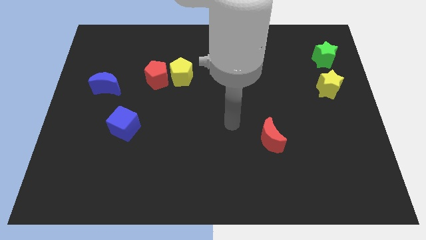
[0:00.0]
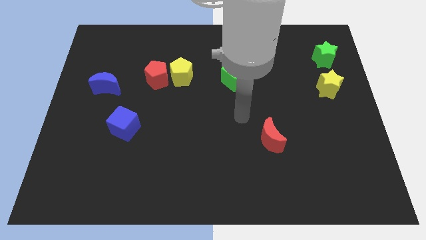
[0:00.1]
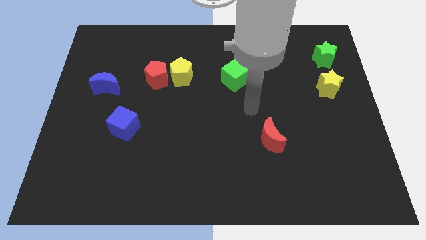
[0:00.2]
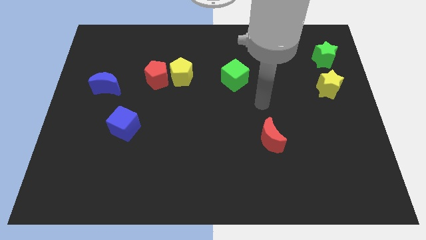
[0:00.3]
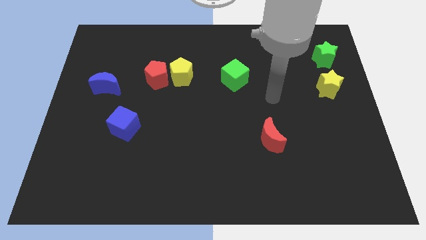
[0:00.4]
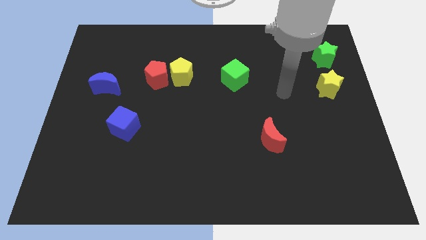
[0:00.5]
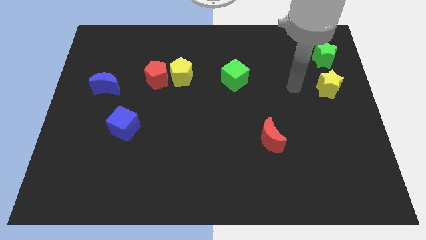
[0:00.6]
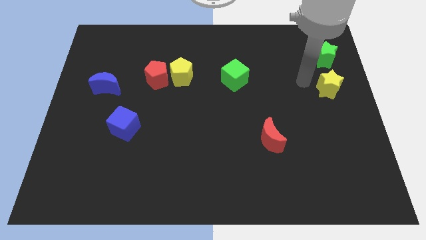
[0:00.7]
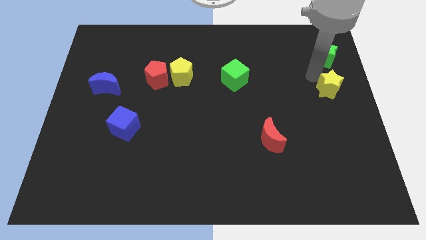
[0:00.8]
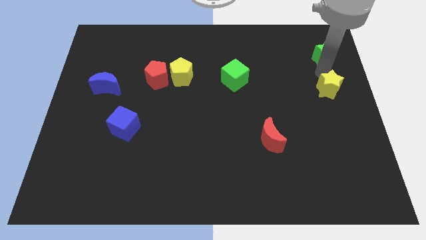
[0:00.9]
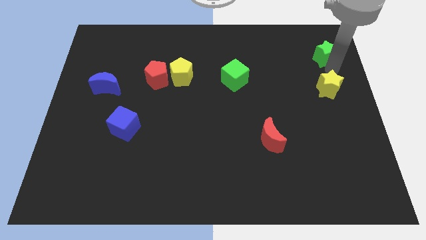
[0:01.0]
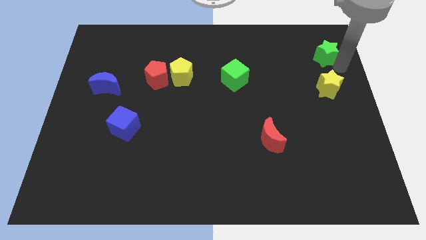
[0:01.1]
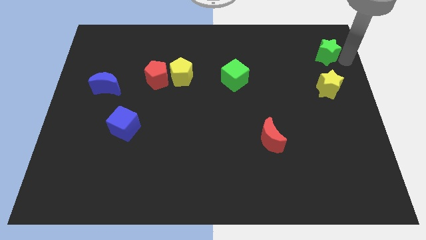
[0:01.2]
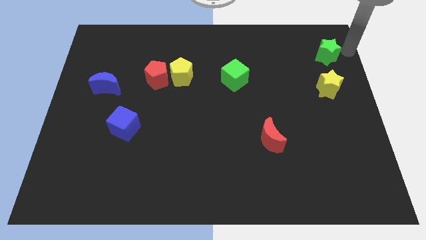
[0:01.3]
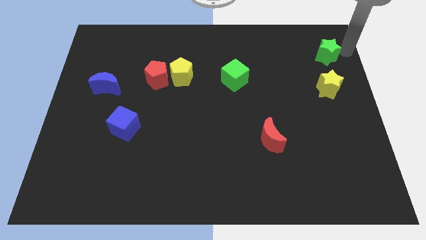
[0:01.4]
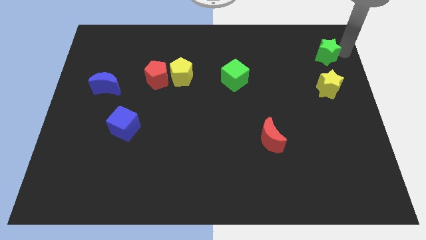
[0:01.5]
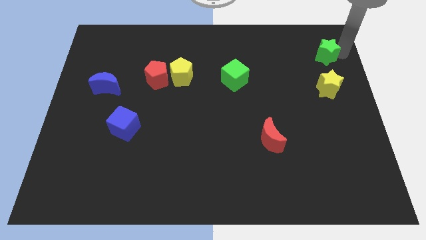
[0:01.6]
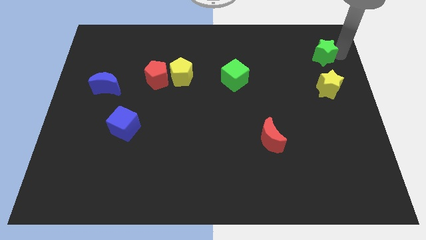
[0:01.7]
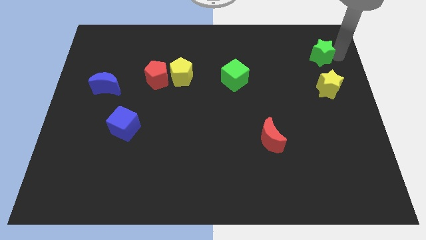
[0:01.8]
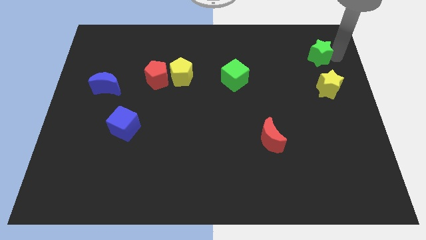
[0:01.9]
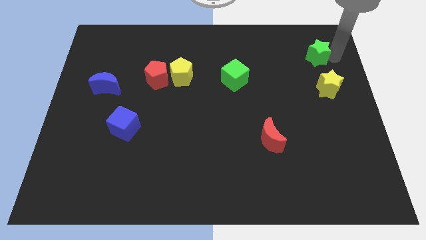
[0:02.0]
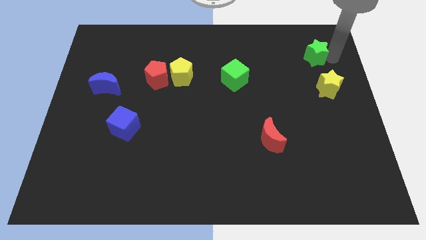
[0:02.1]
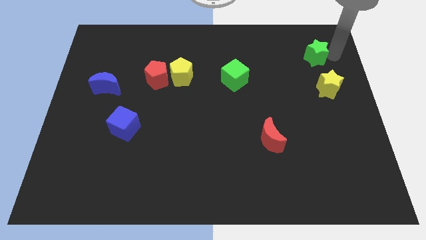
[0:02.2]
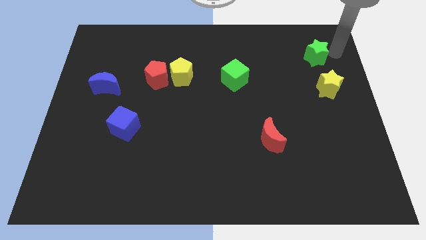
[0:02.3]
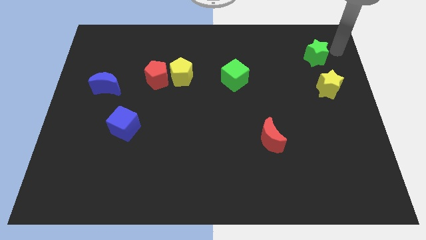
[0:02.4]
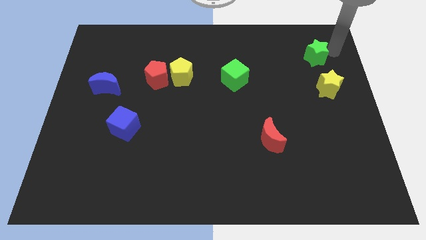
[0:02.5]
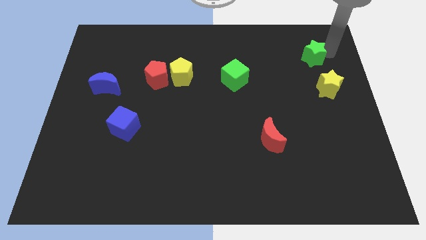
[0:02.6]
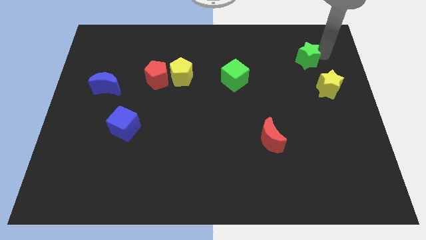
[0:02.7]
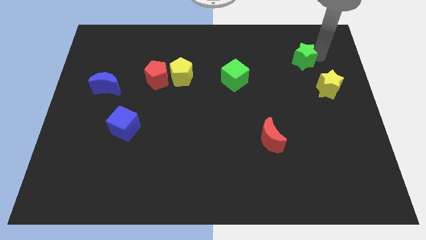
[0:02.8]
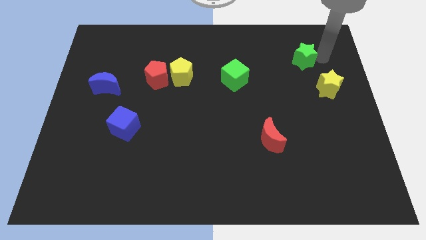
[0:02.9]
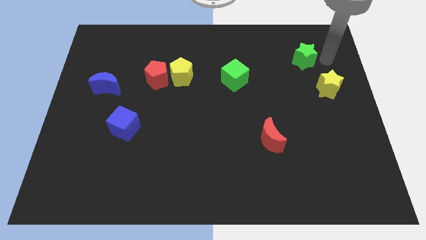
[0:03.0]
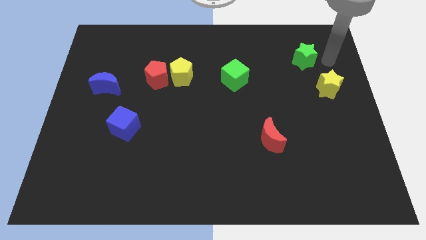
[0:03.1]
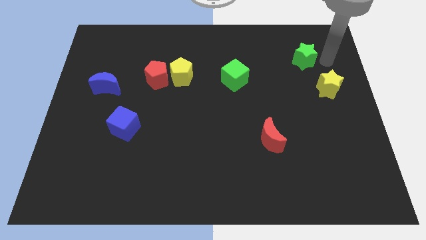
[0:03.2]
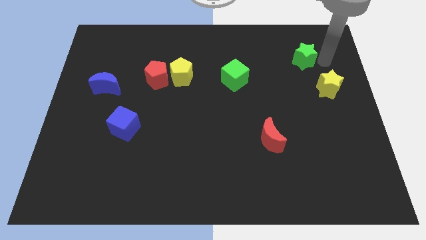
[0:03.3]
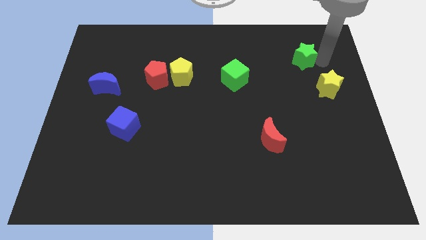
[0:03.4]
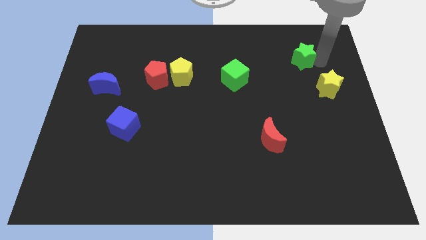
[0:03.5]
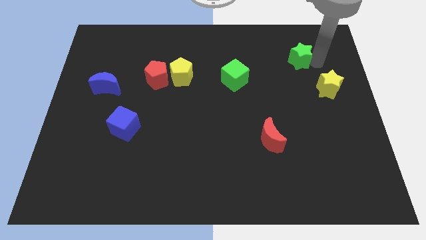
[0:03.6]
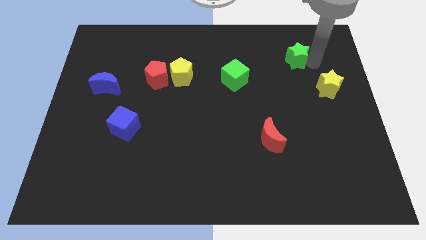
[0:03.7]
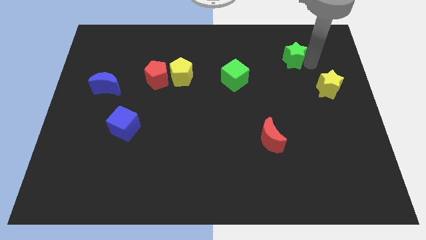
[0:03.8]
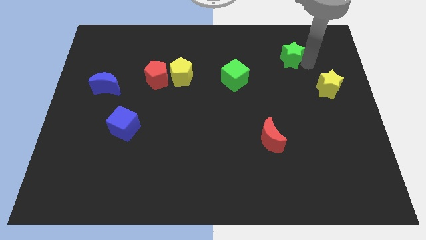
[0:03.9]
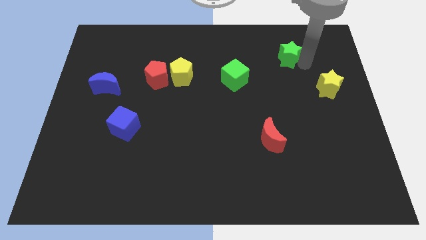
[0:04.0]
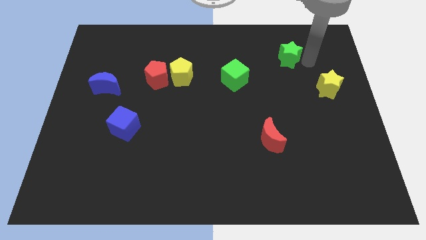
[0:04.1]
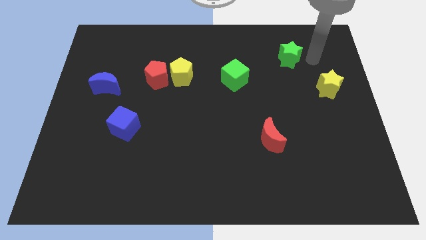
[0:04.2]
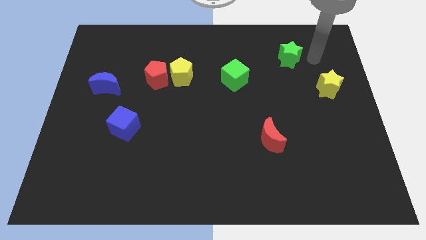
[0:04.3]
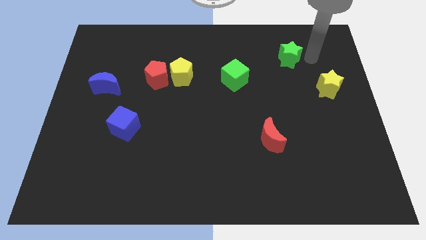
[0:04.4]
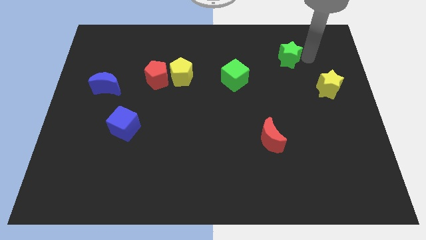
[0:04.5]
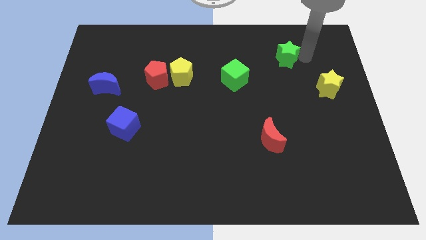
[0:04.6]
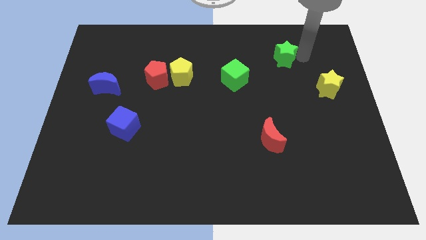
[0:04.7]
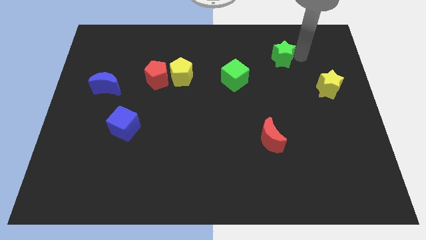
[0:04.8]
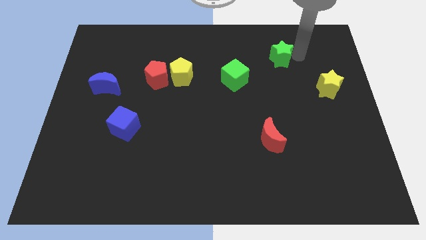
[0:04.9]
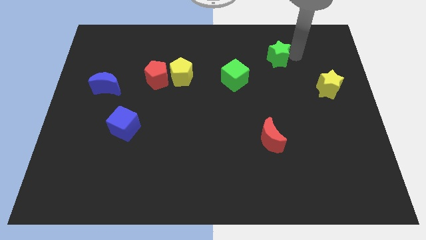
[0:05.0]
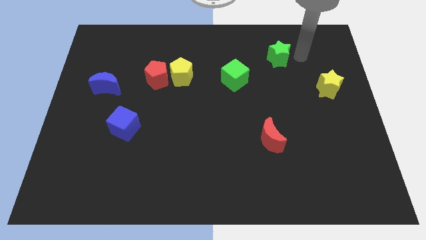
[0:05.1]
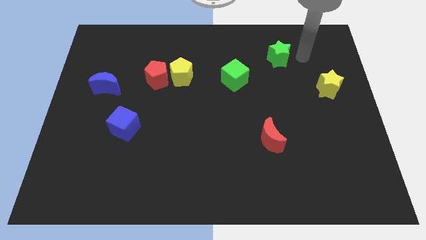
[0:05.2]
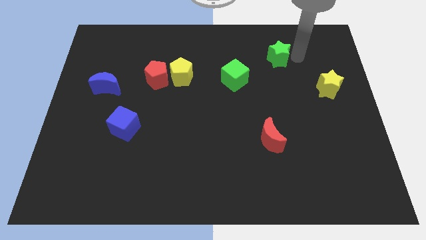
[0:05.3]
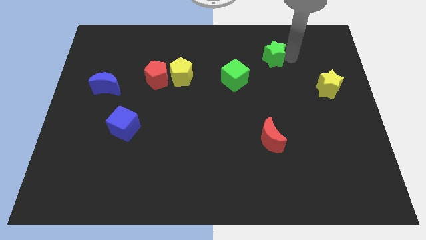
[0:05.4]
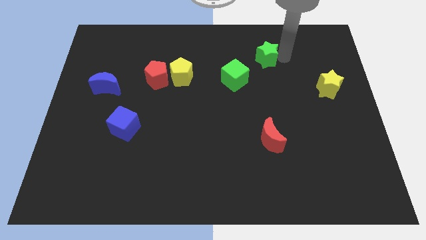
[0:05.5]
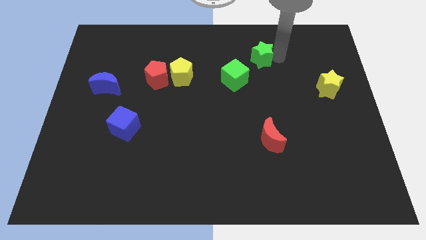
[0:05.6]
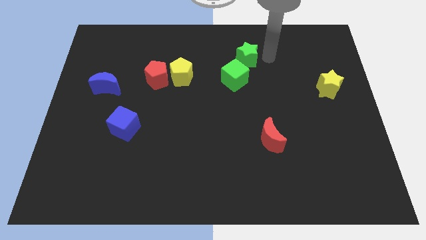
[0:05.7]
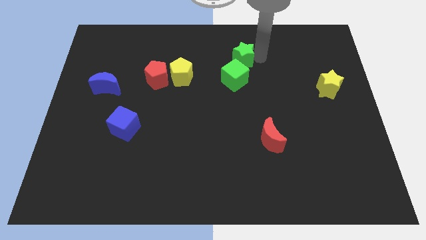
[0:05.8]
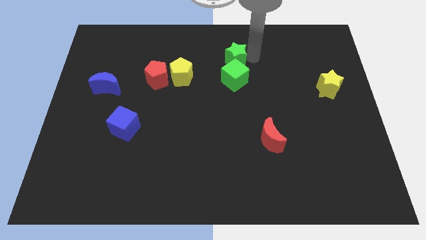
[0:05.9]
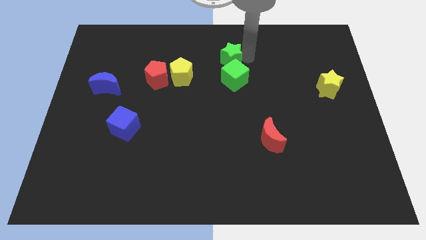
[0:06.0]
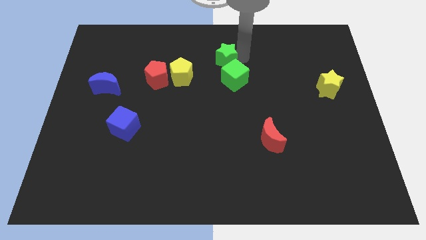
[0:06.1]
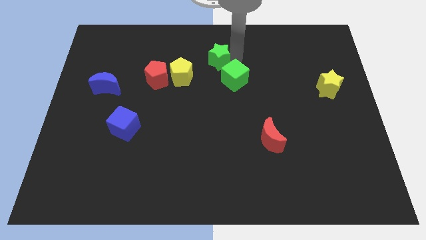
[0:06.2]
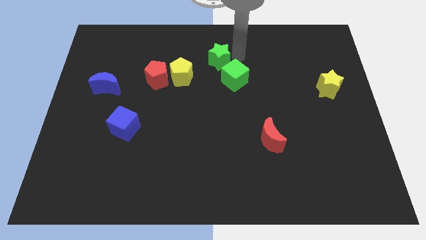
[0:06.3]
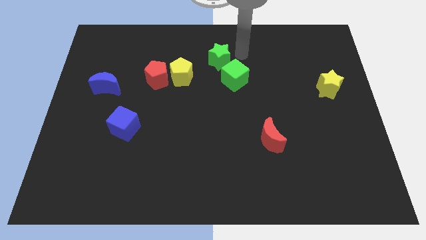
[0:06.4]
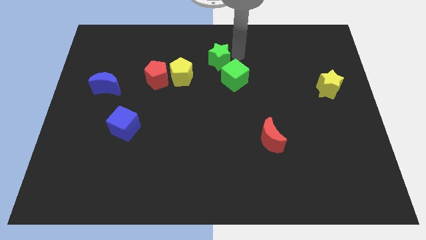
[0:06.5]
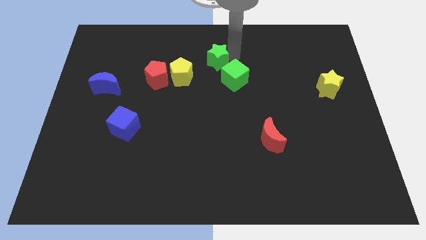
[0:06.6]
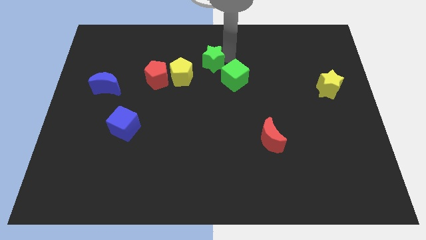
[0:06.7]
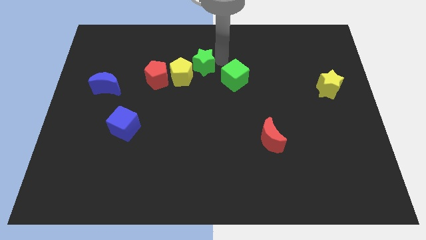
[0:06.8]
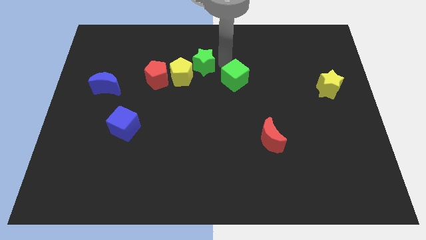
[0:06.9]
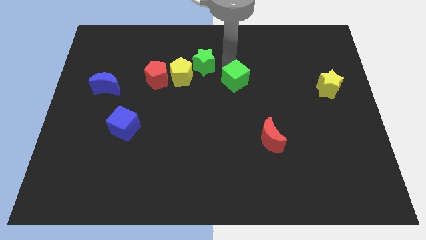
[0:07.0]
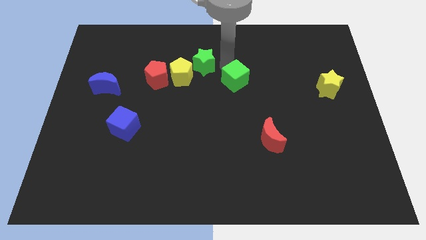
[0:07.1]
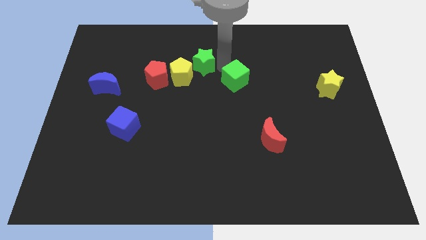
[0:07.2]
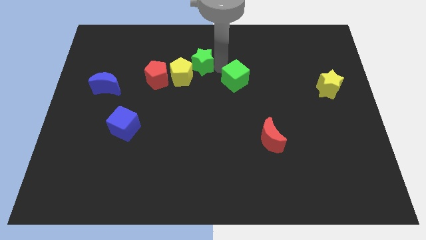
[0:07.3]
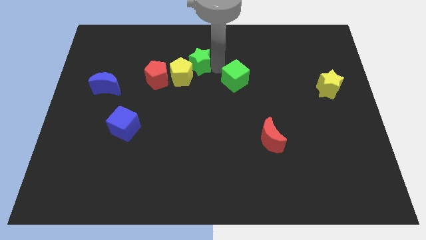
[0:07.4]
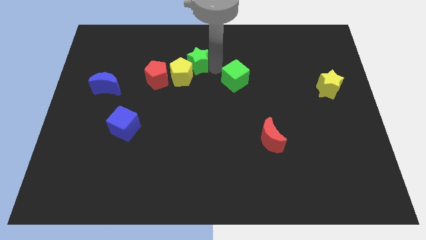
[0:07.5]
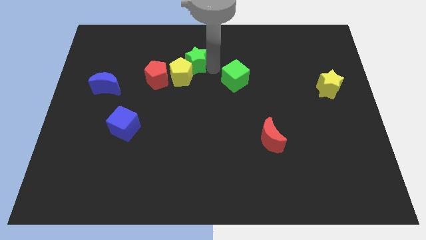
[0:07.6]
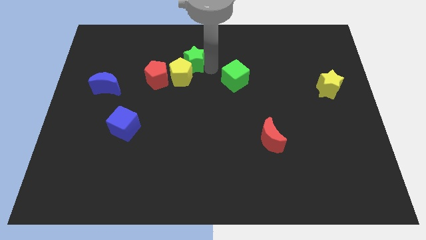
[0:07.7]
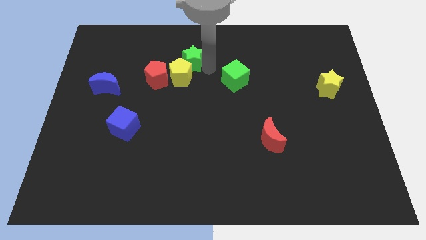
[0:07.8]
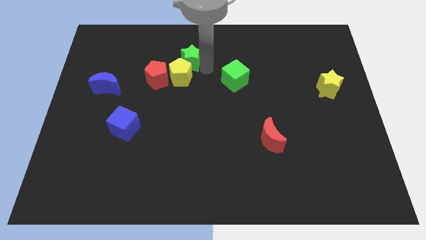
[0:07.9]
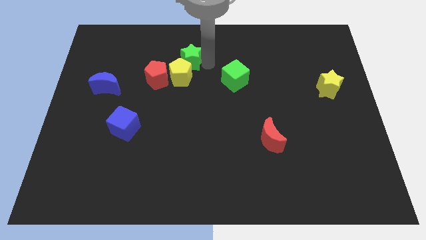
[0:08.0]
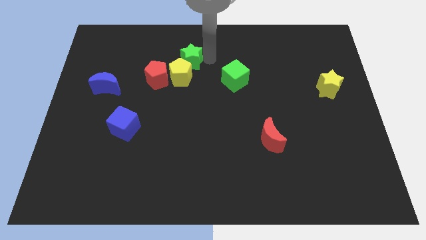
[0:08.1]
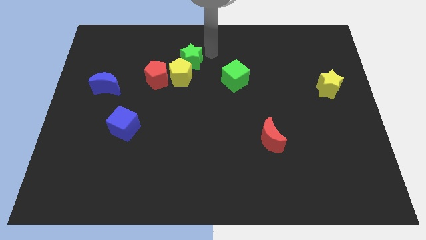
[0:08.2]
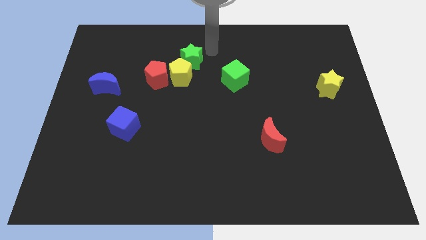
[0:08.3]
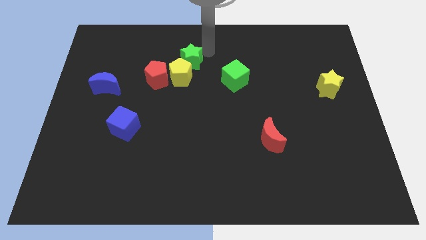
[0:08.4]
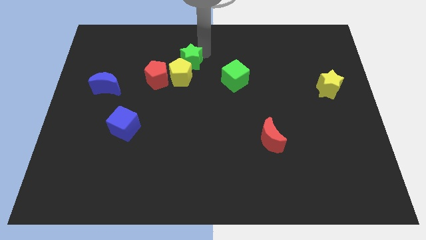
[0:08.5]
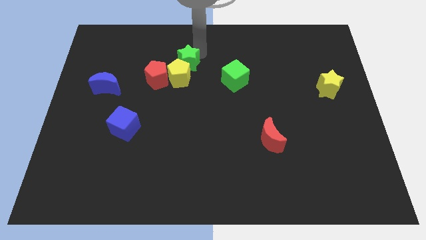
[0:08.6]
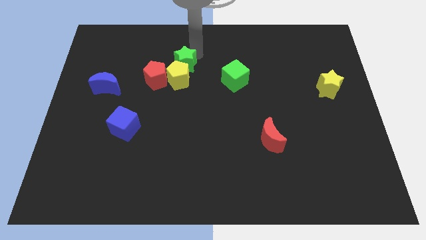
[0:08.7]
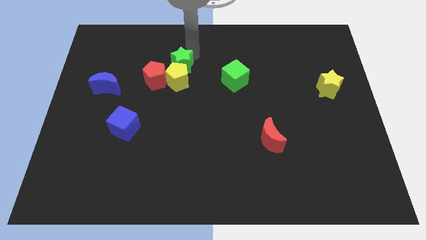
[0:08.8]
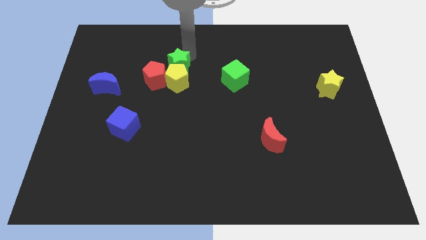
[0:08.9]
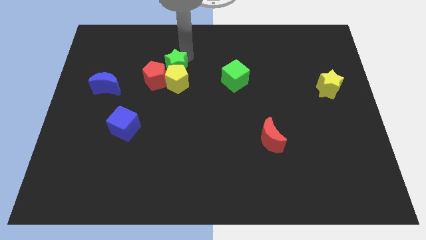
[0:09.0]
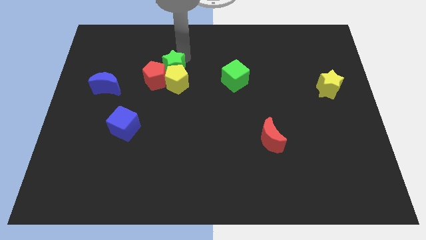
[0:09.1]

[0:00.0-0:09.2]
move the green star towards the red pentagon
